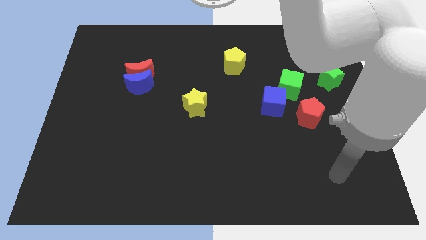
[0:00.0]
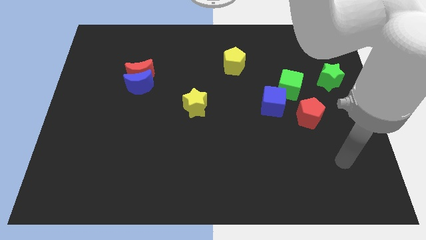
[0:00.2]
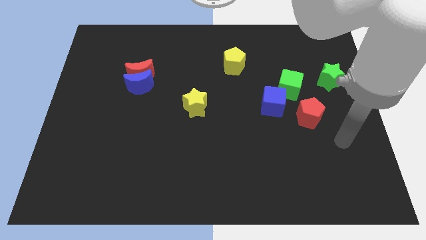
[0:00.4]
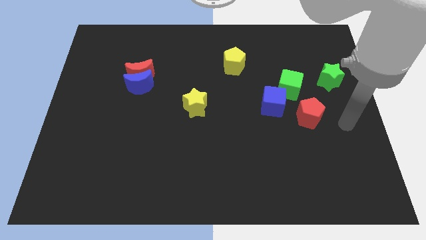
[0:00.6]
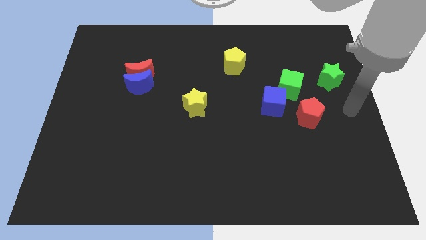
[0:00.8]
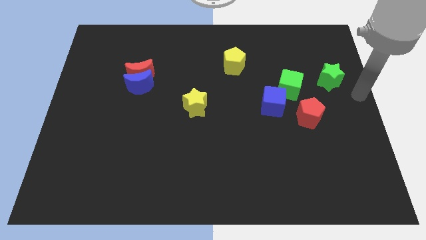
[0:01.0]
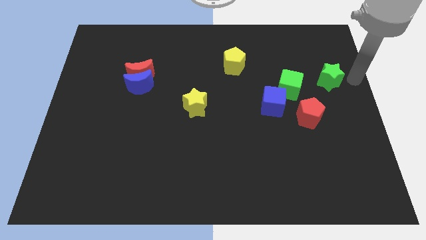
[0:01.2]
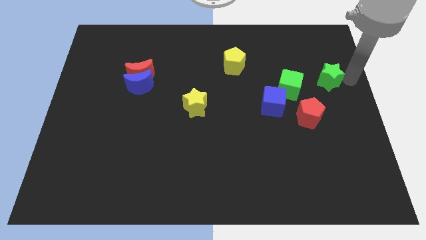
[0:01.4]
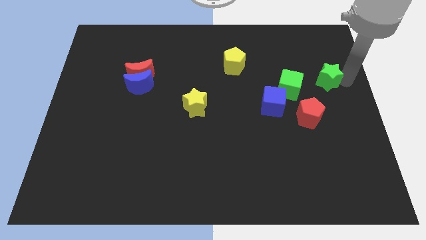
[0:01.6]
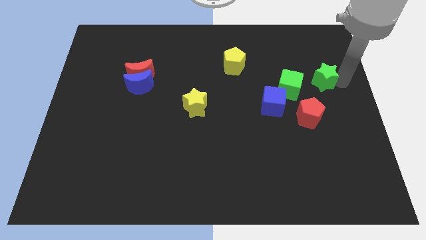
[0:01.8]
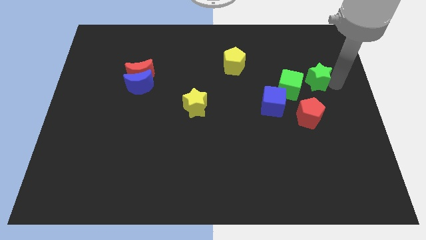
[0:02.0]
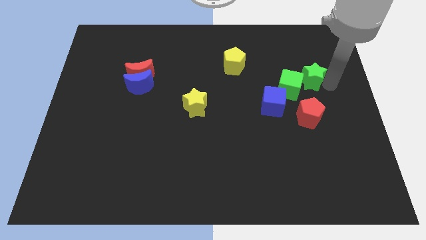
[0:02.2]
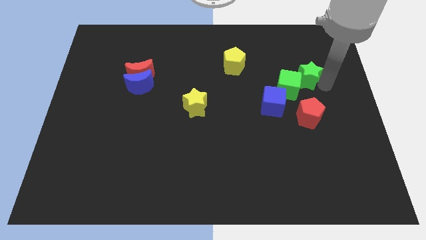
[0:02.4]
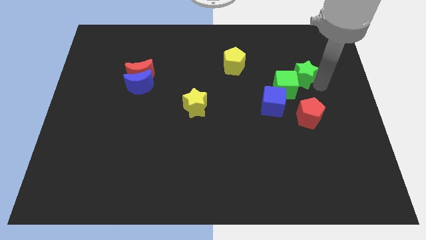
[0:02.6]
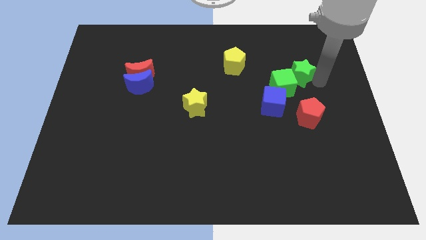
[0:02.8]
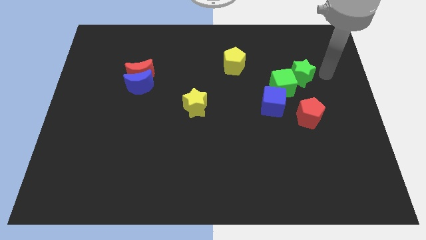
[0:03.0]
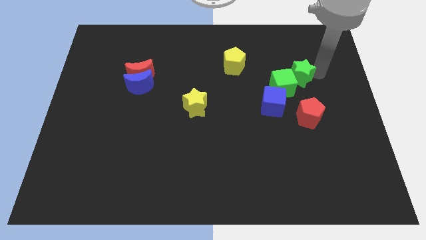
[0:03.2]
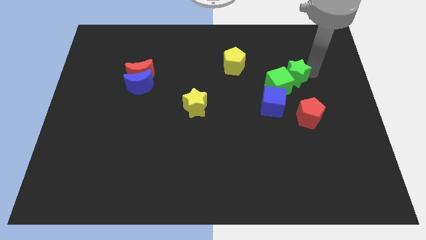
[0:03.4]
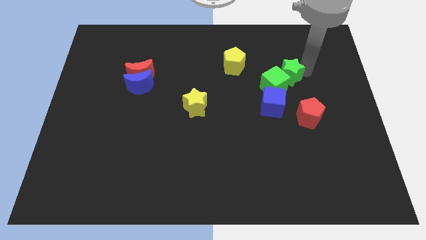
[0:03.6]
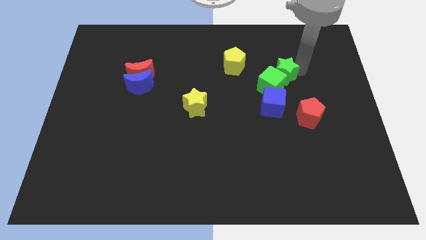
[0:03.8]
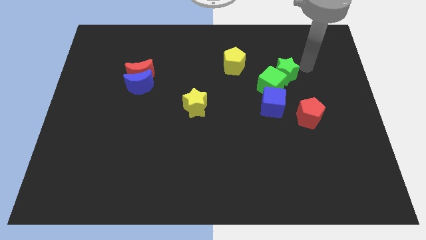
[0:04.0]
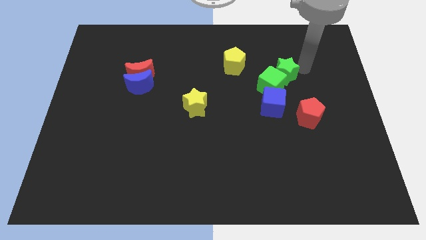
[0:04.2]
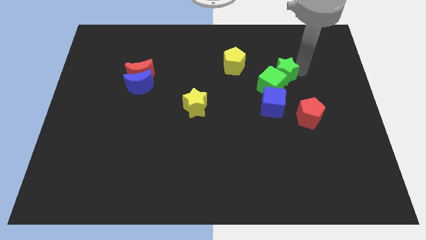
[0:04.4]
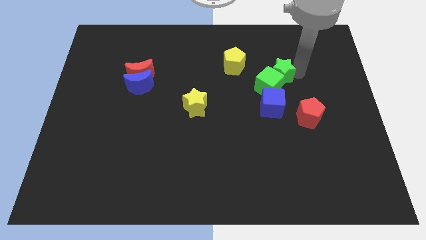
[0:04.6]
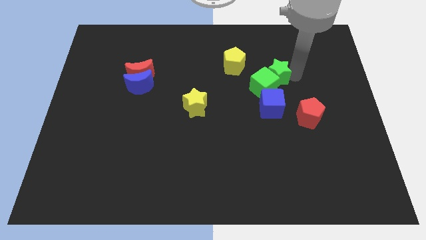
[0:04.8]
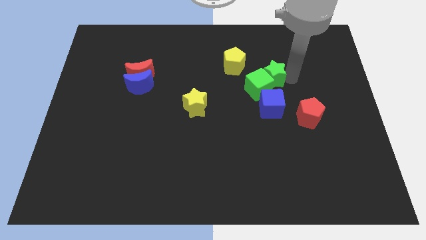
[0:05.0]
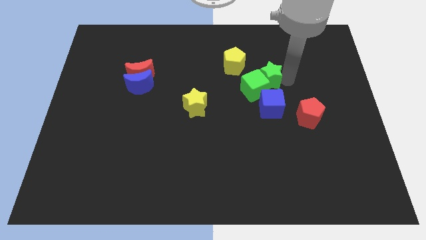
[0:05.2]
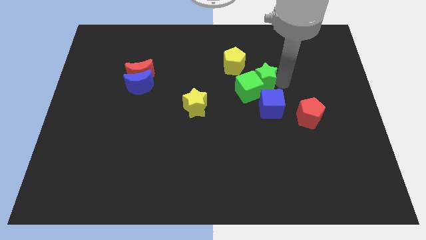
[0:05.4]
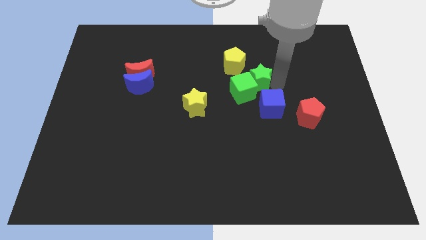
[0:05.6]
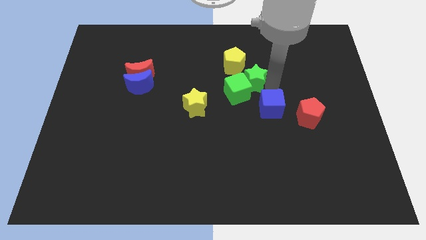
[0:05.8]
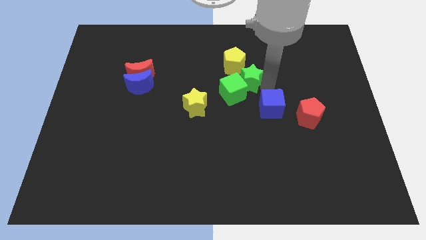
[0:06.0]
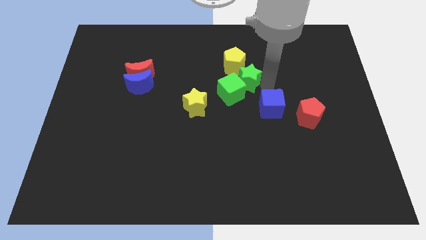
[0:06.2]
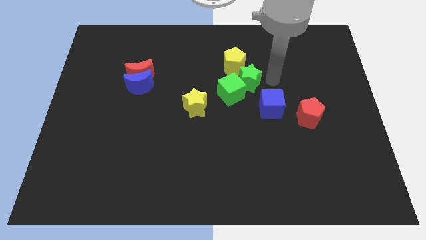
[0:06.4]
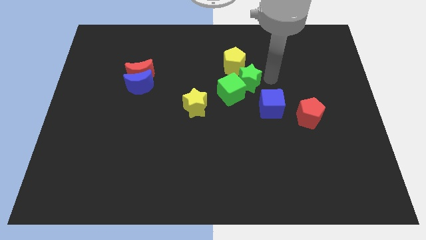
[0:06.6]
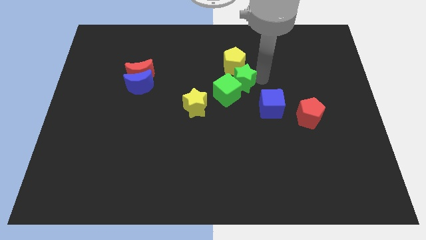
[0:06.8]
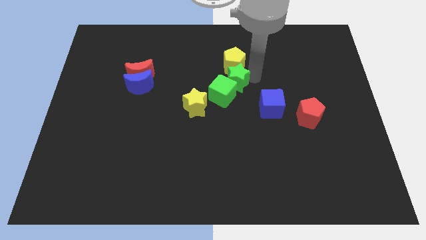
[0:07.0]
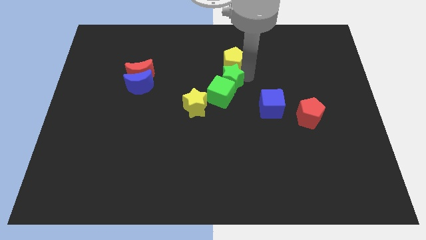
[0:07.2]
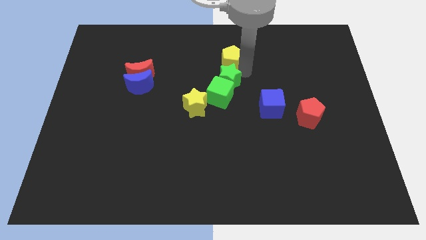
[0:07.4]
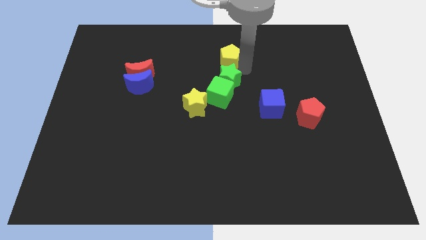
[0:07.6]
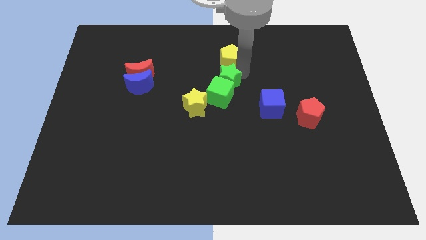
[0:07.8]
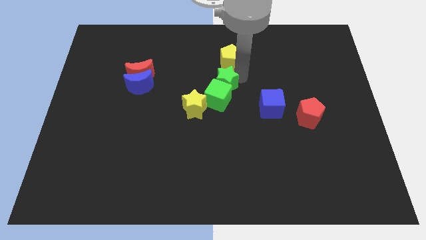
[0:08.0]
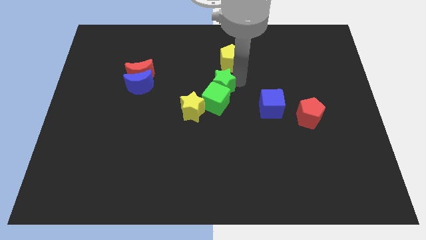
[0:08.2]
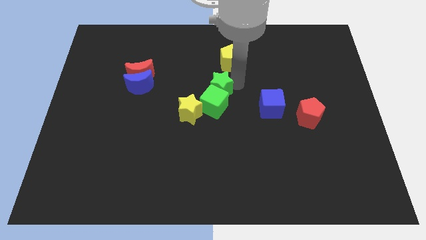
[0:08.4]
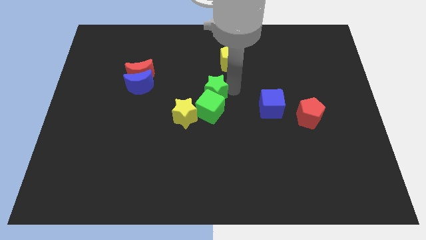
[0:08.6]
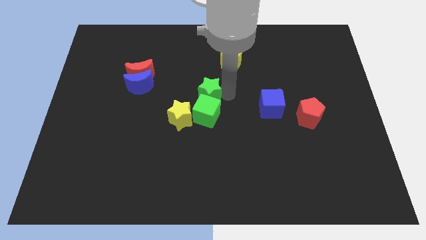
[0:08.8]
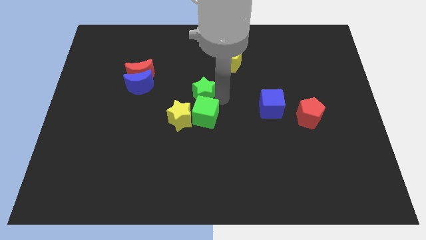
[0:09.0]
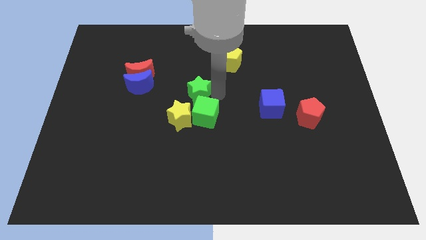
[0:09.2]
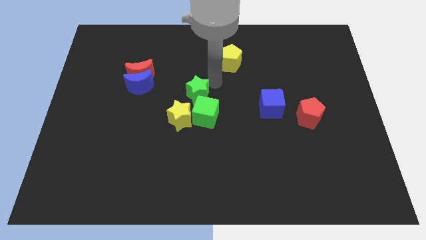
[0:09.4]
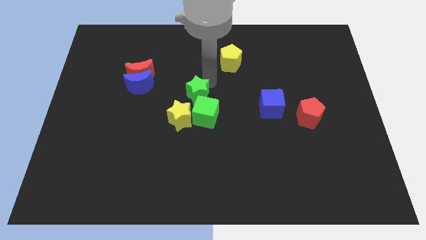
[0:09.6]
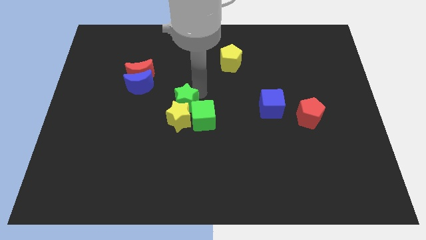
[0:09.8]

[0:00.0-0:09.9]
slide the green star next to the yellow star

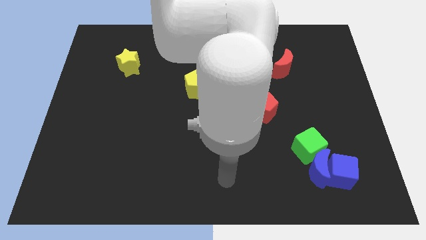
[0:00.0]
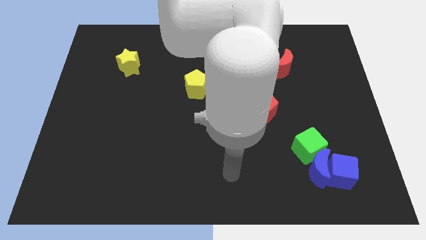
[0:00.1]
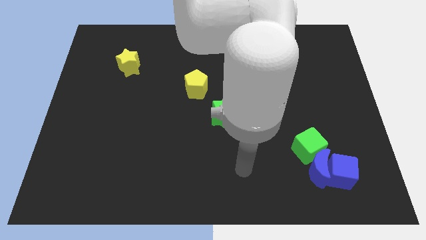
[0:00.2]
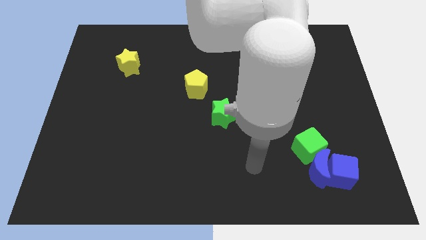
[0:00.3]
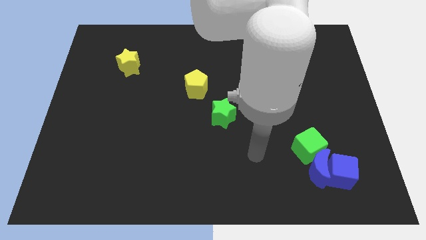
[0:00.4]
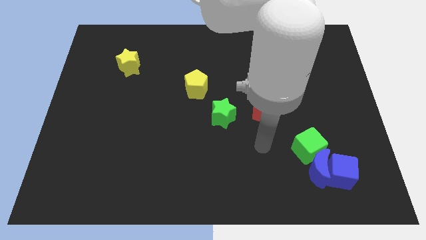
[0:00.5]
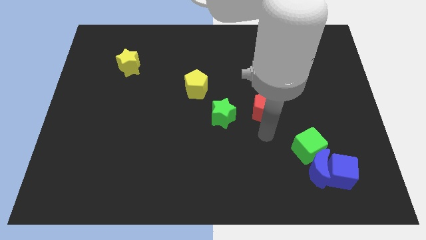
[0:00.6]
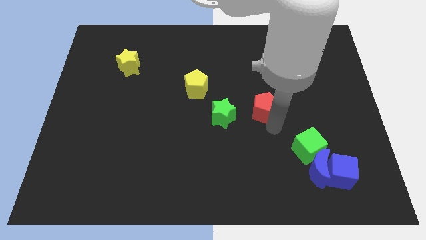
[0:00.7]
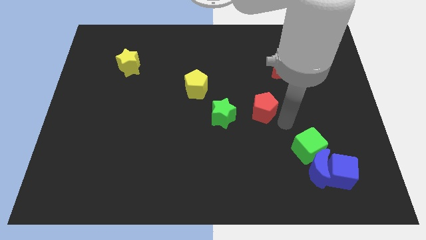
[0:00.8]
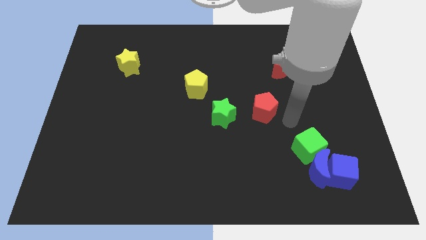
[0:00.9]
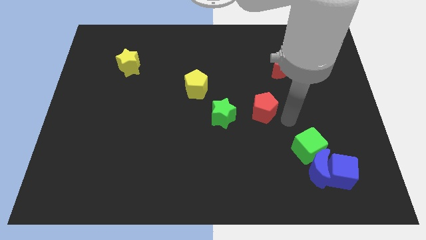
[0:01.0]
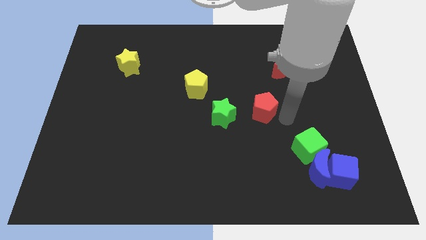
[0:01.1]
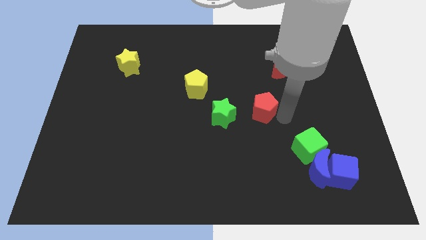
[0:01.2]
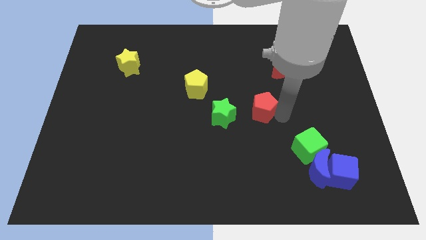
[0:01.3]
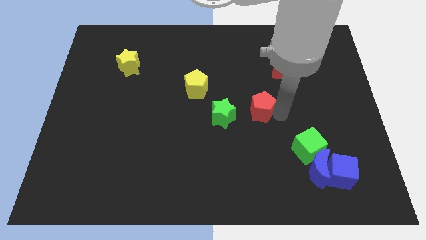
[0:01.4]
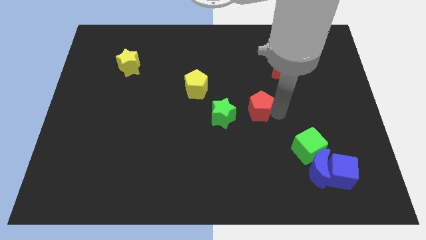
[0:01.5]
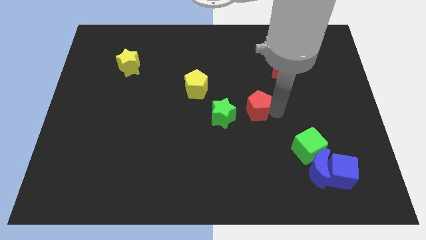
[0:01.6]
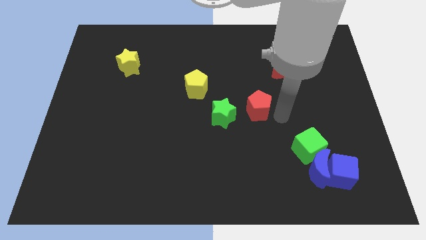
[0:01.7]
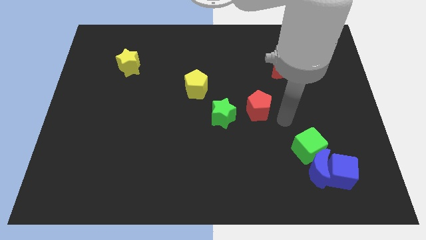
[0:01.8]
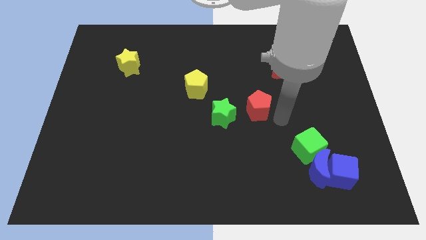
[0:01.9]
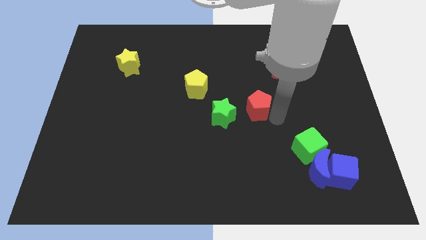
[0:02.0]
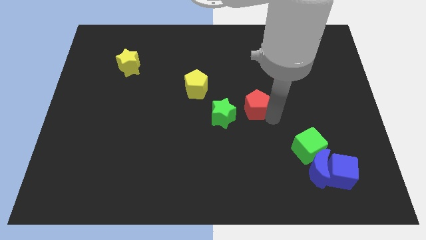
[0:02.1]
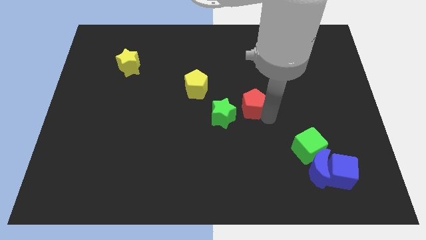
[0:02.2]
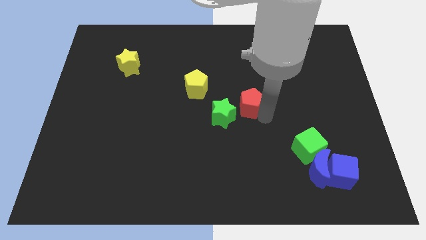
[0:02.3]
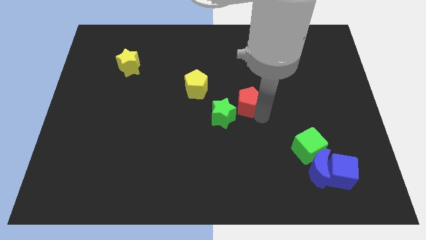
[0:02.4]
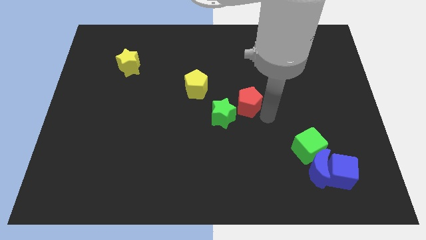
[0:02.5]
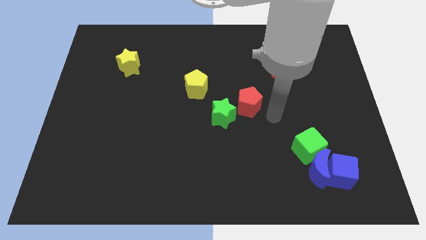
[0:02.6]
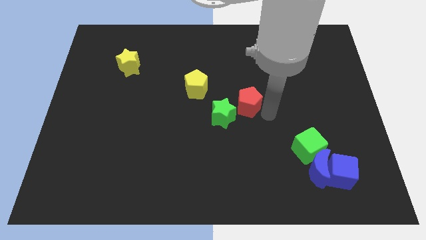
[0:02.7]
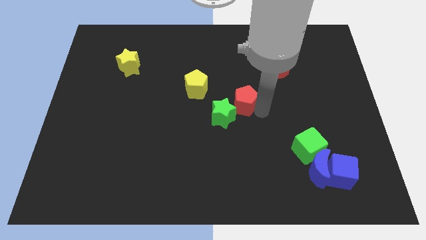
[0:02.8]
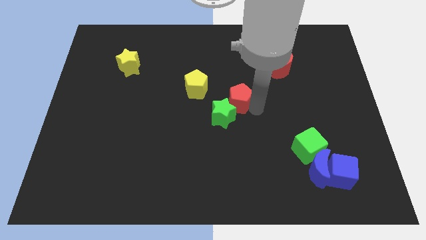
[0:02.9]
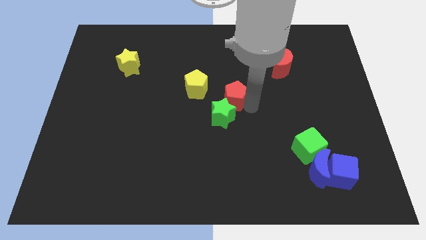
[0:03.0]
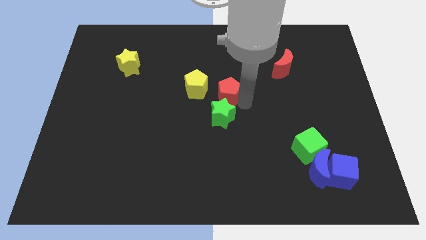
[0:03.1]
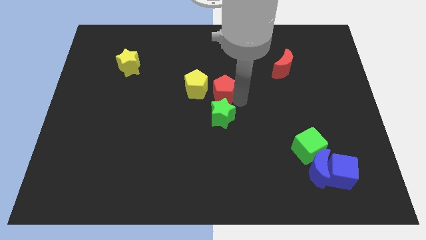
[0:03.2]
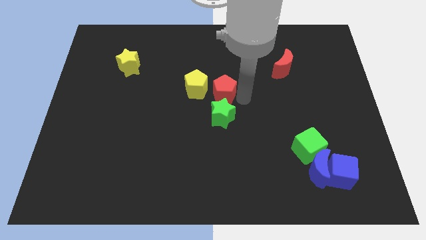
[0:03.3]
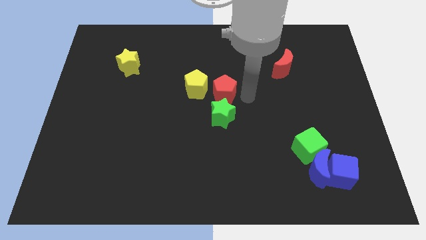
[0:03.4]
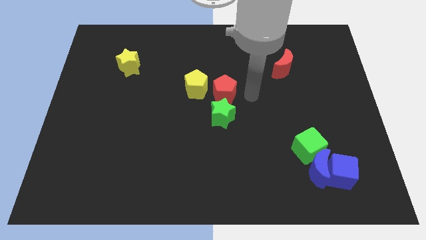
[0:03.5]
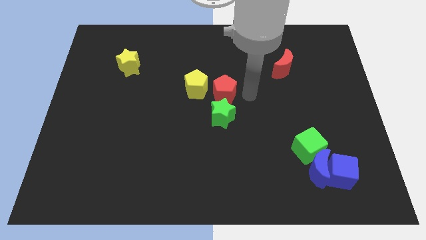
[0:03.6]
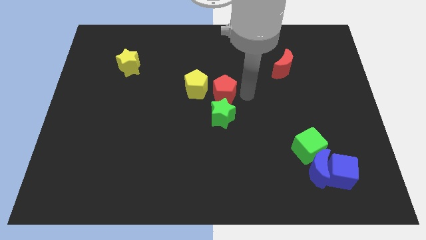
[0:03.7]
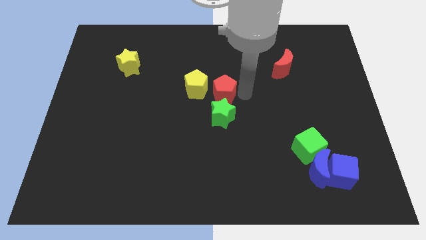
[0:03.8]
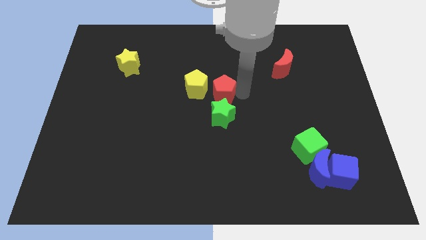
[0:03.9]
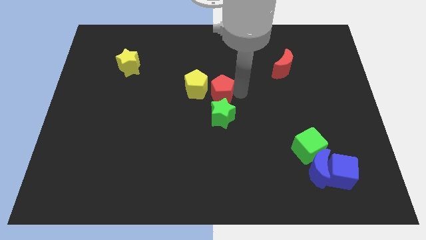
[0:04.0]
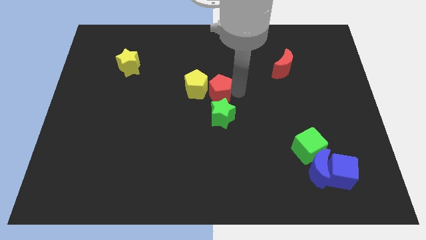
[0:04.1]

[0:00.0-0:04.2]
push the red pentagon close to the yellow pentagon
